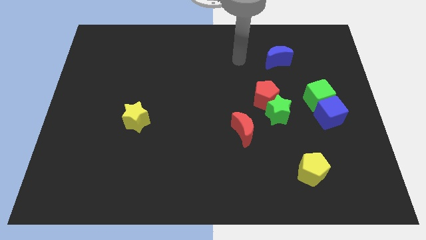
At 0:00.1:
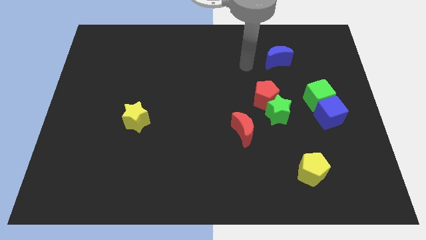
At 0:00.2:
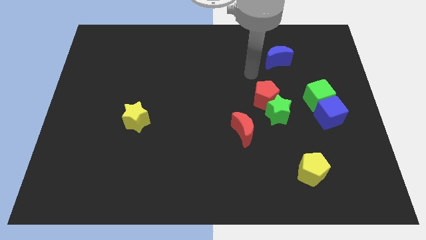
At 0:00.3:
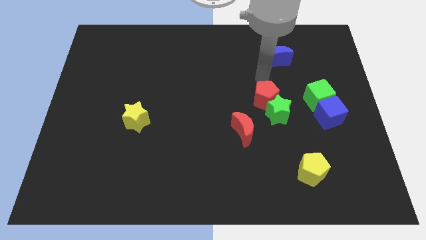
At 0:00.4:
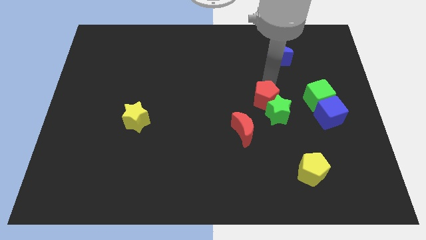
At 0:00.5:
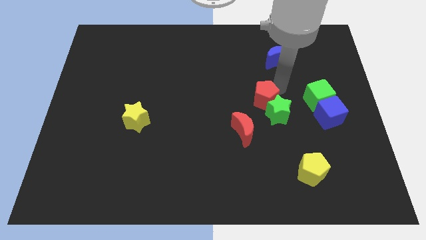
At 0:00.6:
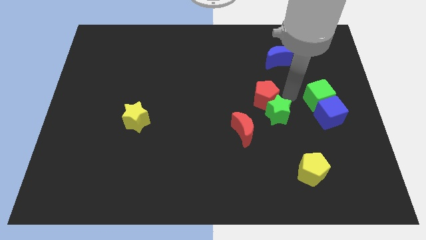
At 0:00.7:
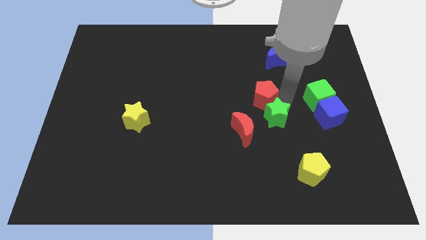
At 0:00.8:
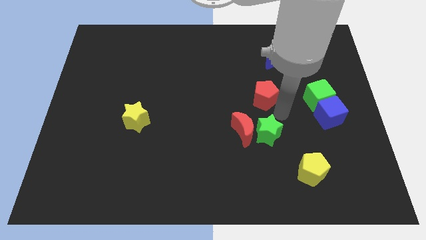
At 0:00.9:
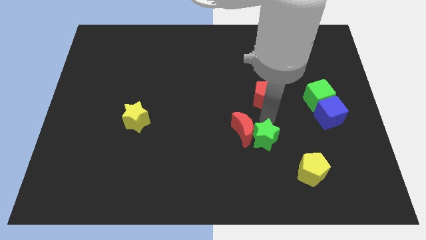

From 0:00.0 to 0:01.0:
separate the red pentagon from the green star

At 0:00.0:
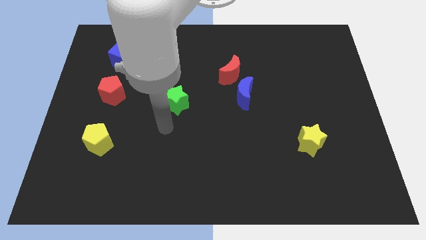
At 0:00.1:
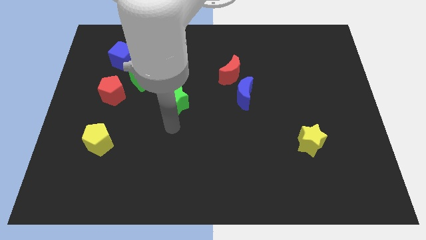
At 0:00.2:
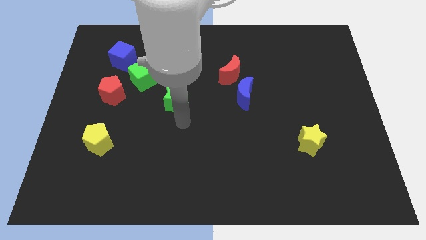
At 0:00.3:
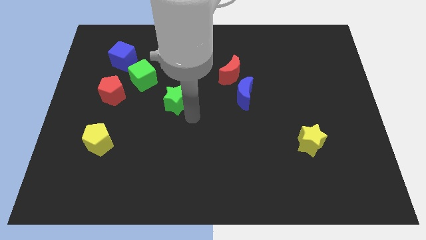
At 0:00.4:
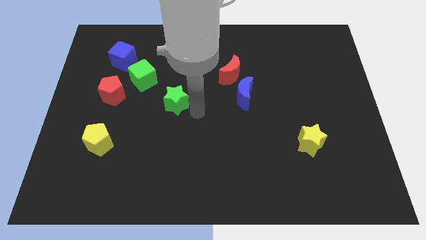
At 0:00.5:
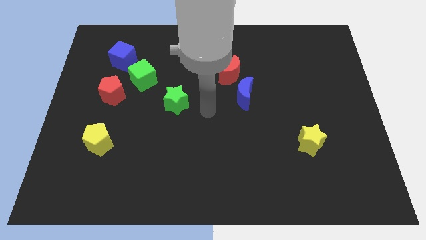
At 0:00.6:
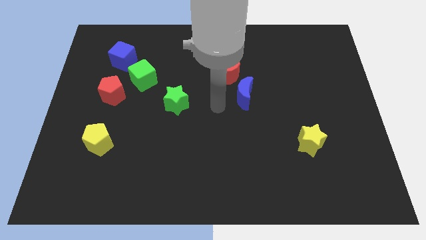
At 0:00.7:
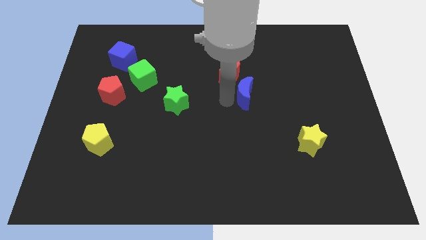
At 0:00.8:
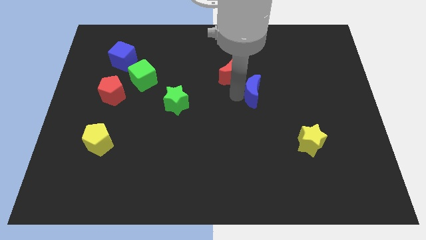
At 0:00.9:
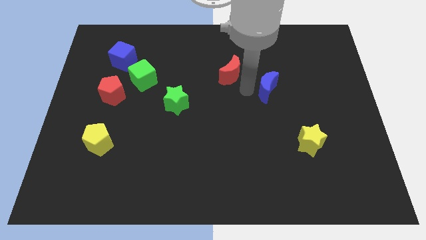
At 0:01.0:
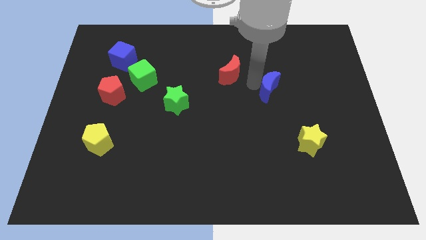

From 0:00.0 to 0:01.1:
separate the red moon from the blue moon

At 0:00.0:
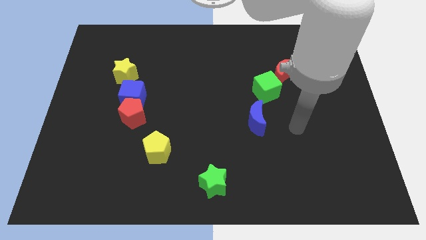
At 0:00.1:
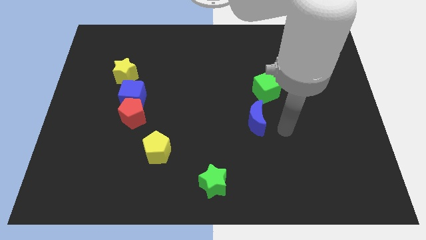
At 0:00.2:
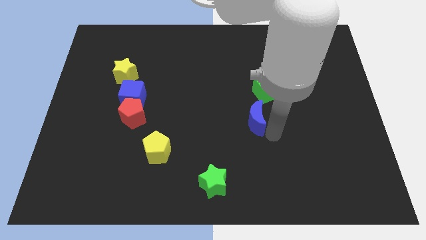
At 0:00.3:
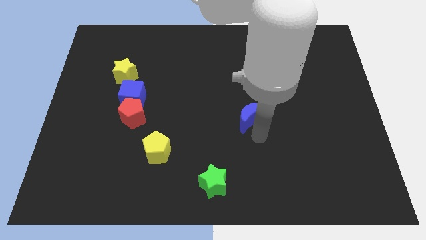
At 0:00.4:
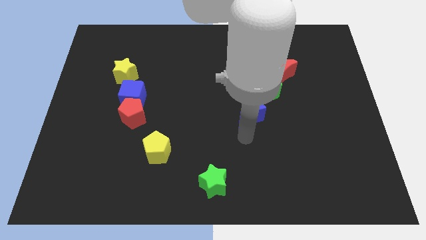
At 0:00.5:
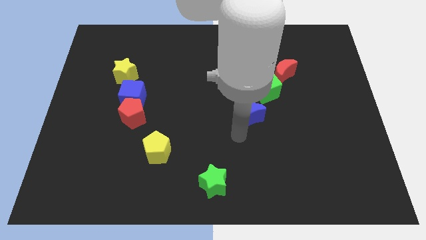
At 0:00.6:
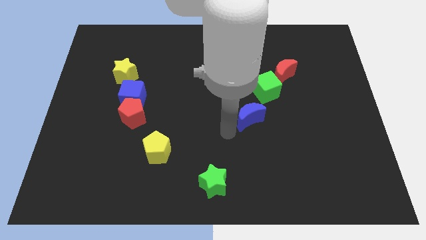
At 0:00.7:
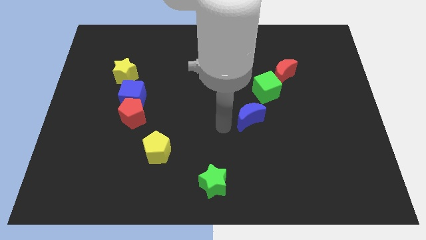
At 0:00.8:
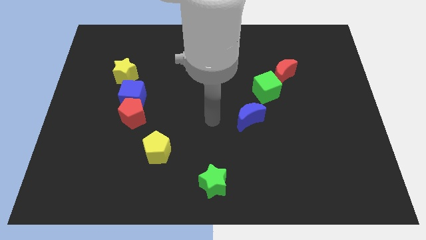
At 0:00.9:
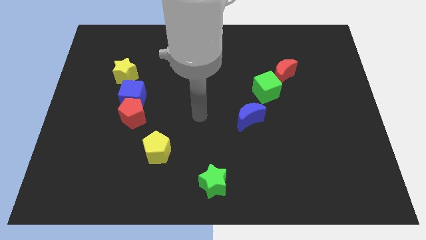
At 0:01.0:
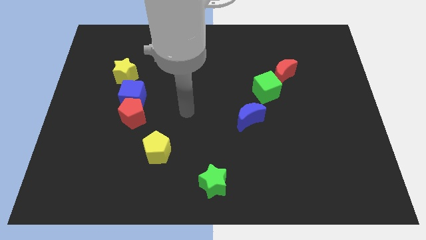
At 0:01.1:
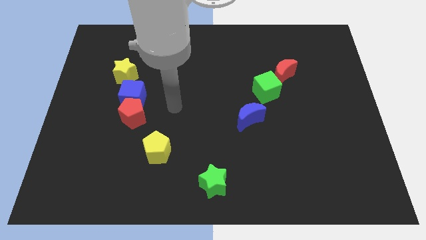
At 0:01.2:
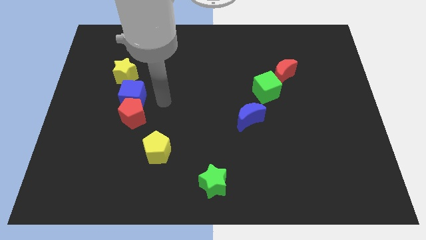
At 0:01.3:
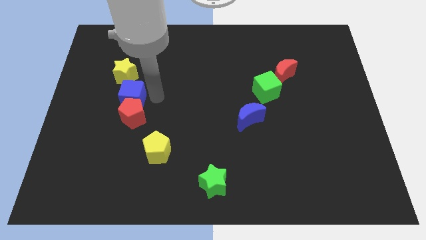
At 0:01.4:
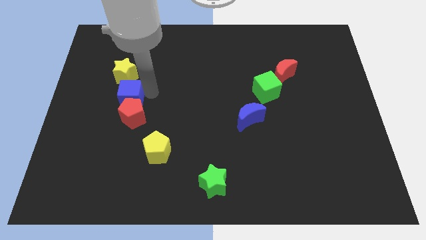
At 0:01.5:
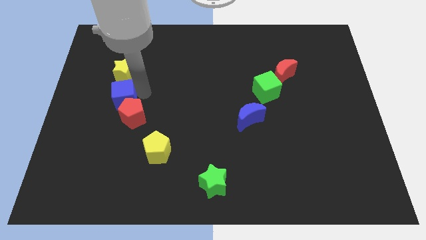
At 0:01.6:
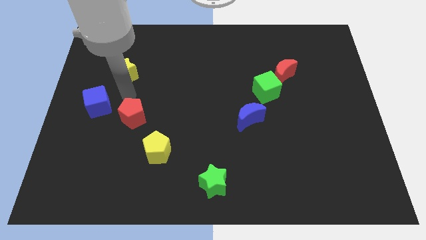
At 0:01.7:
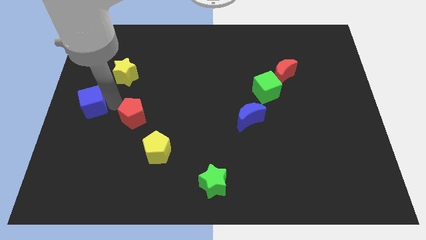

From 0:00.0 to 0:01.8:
separate the red pentagon from the blue cube

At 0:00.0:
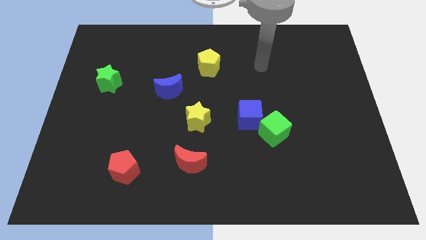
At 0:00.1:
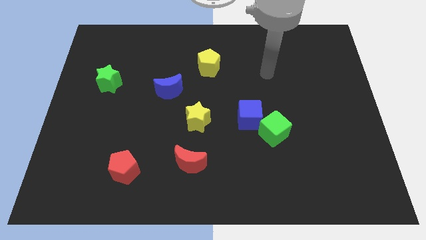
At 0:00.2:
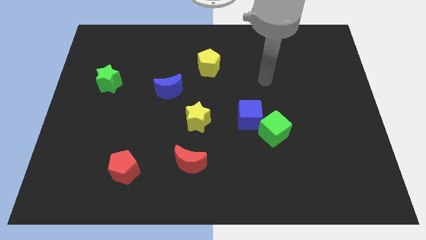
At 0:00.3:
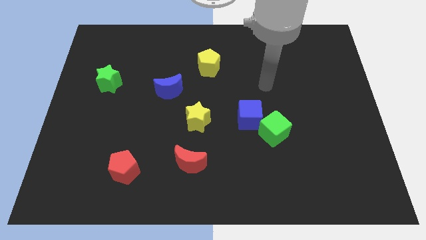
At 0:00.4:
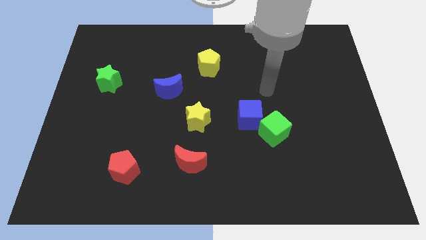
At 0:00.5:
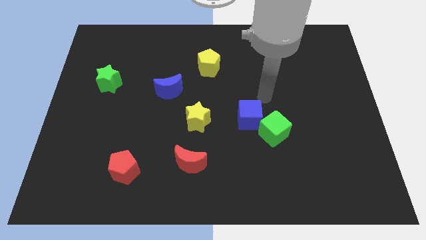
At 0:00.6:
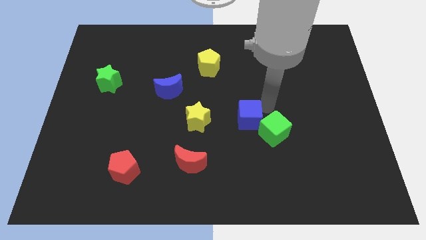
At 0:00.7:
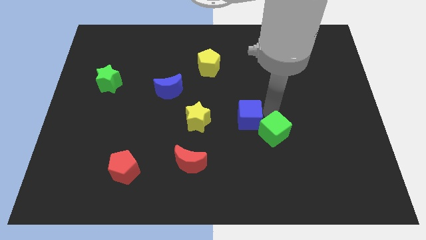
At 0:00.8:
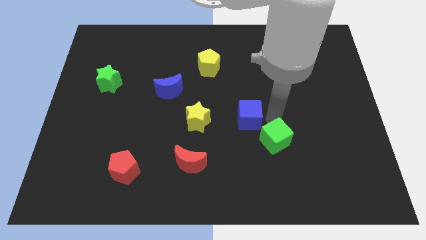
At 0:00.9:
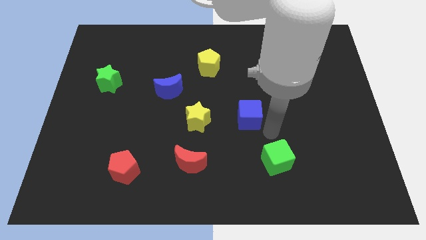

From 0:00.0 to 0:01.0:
pull the blue cube apart from the green cube

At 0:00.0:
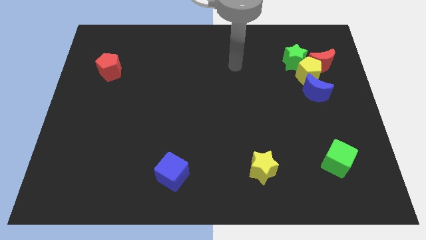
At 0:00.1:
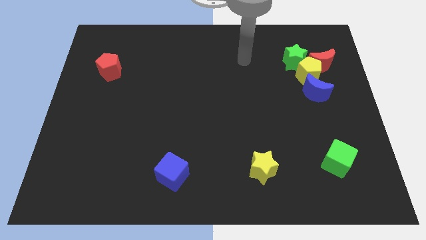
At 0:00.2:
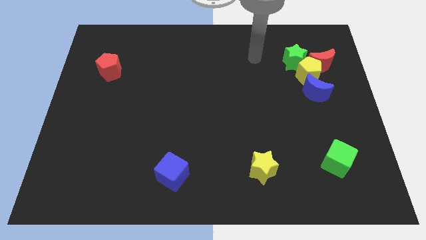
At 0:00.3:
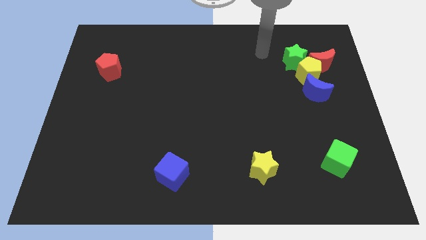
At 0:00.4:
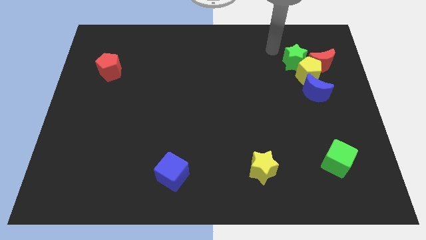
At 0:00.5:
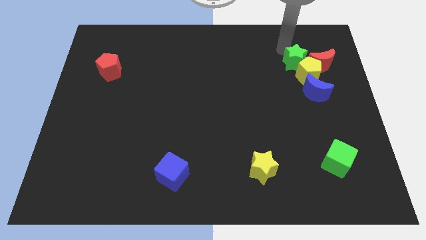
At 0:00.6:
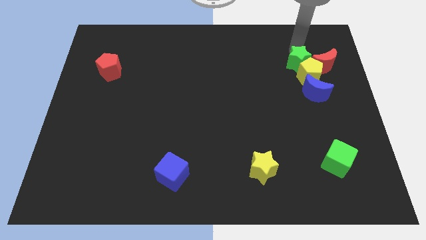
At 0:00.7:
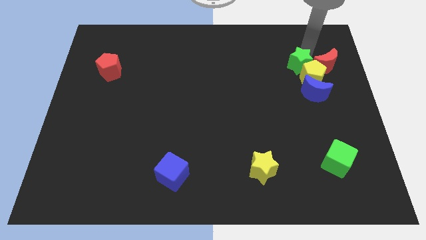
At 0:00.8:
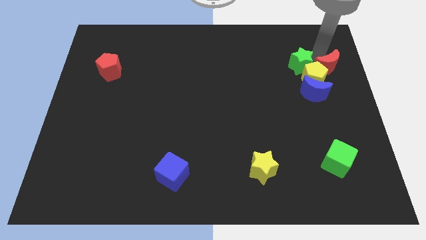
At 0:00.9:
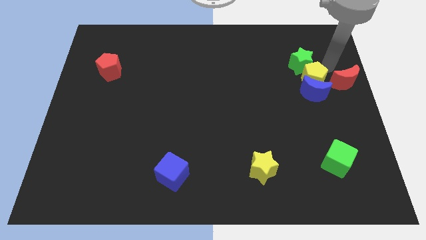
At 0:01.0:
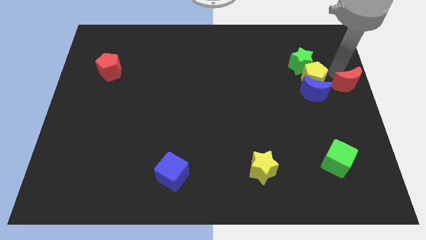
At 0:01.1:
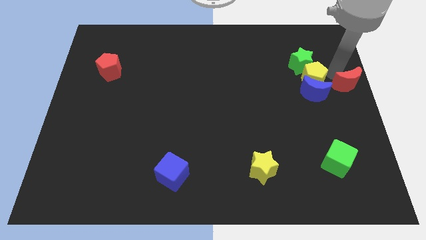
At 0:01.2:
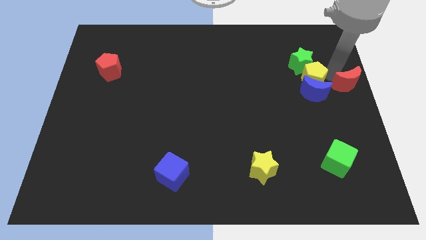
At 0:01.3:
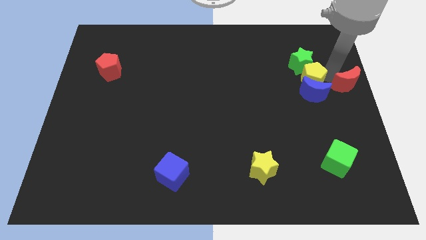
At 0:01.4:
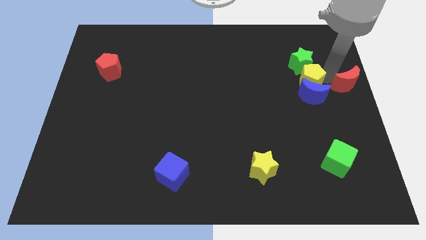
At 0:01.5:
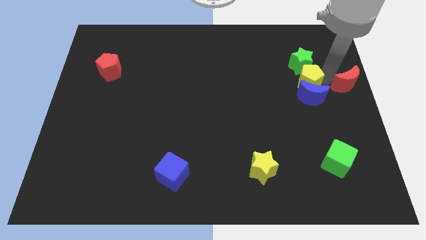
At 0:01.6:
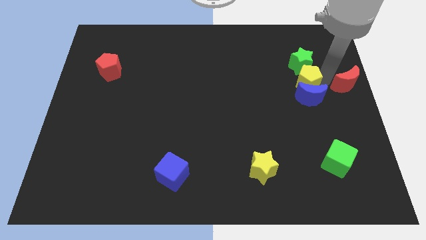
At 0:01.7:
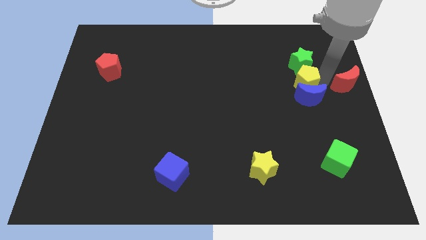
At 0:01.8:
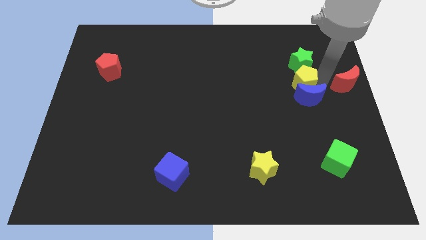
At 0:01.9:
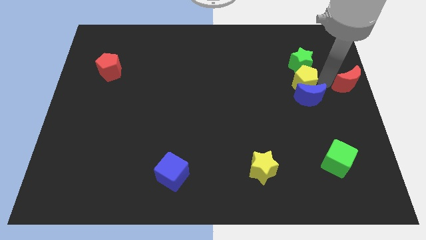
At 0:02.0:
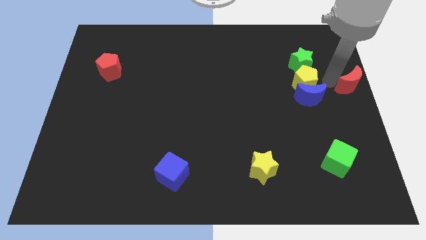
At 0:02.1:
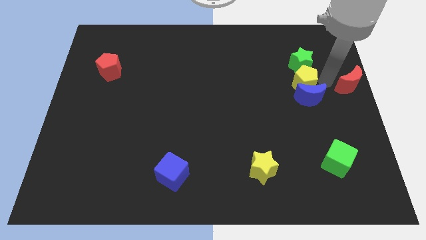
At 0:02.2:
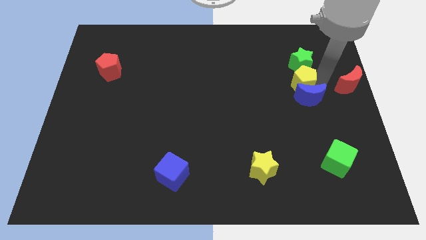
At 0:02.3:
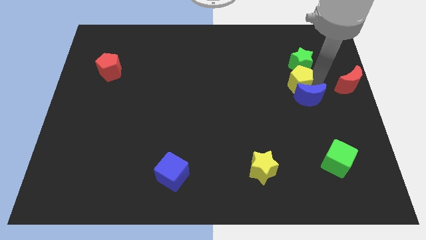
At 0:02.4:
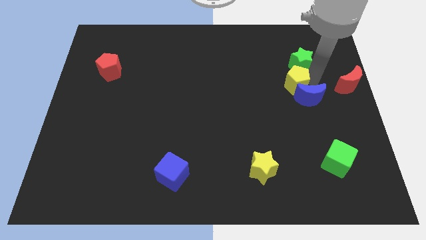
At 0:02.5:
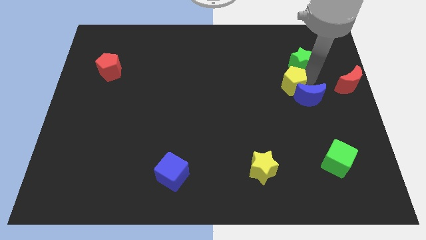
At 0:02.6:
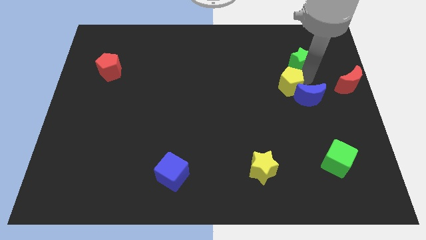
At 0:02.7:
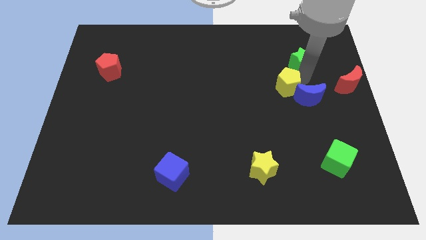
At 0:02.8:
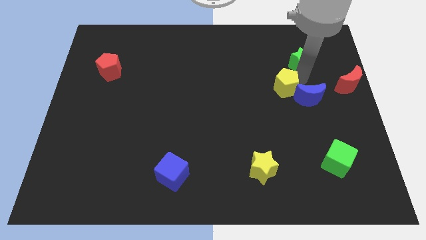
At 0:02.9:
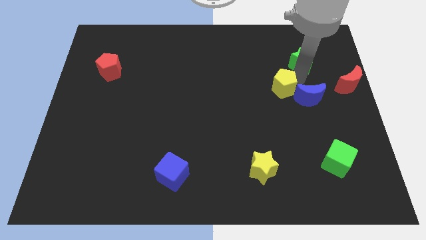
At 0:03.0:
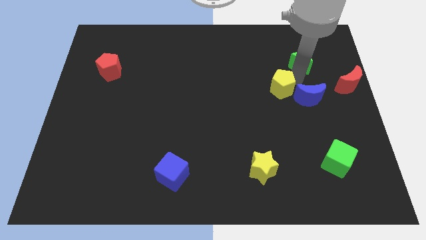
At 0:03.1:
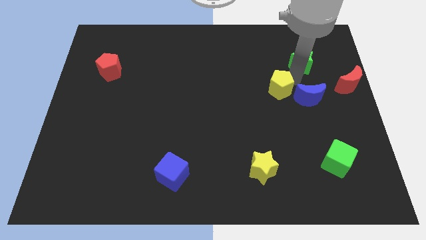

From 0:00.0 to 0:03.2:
pull the yellow pentagon apart from the red moon, green star, and blue moon

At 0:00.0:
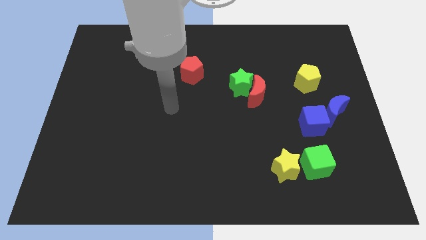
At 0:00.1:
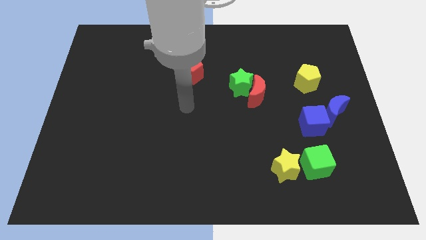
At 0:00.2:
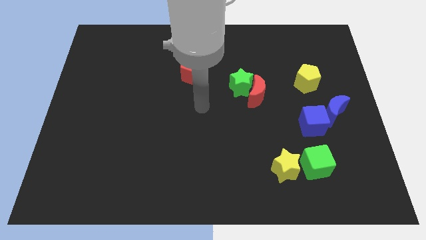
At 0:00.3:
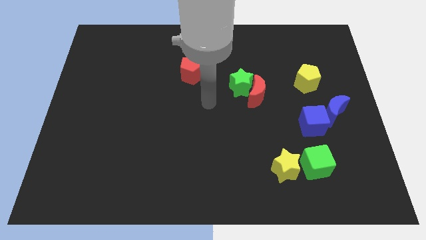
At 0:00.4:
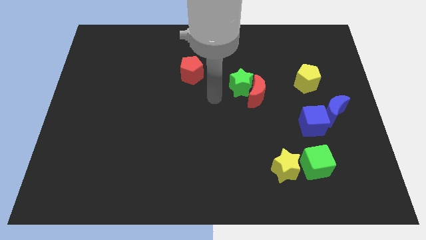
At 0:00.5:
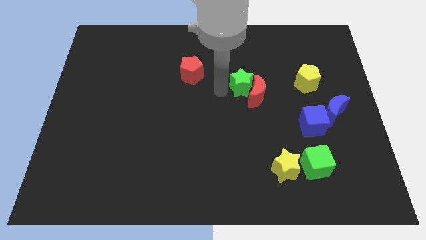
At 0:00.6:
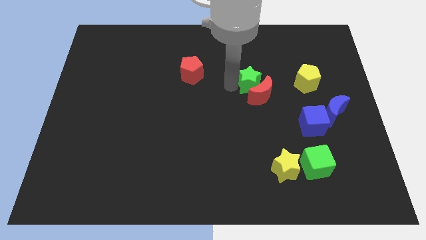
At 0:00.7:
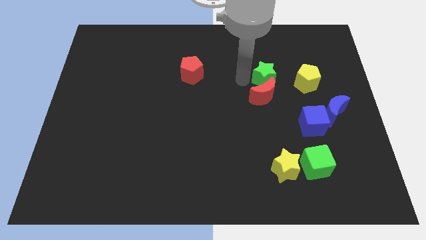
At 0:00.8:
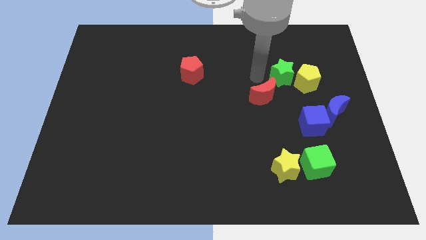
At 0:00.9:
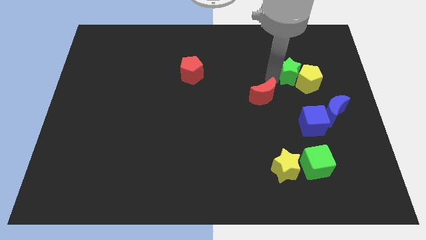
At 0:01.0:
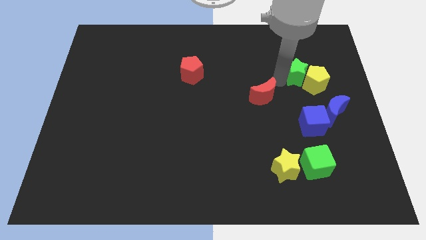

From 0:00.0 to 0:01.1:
move the red moon away from the green star

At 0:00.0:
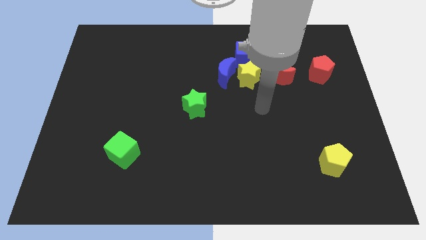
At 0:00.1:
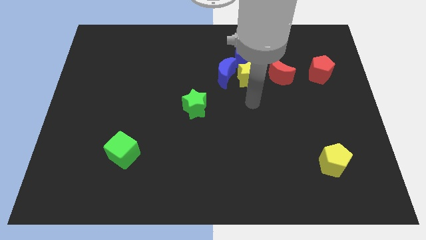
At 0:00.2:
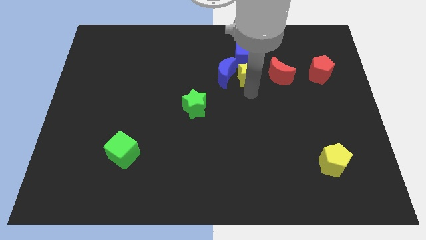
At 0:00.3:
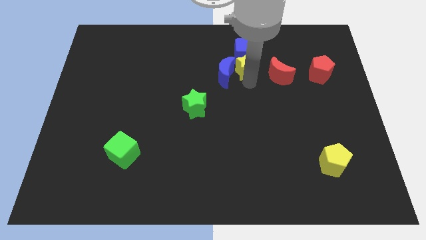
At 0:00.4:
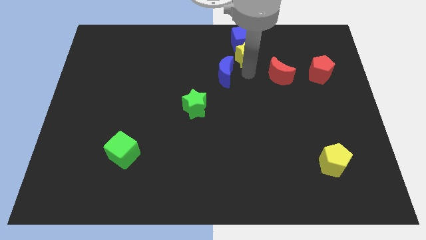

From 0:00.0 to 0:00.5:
separate the blue moon from the yellow star and blue cube
